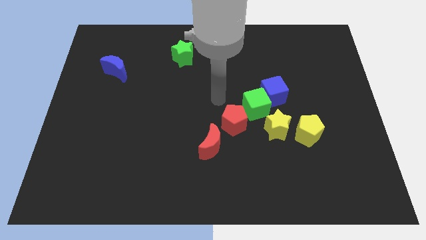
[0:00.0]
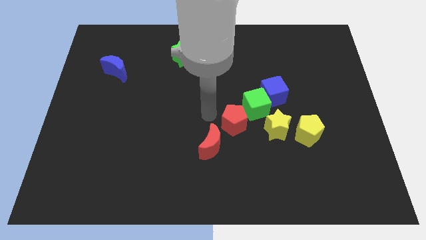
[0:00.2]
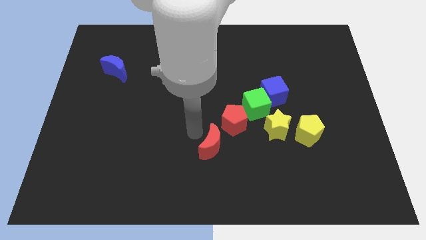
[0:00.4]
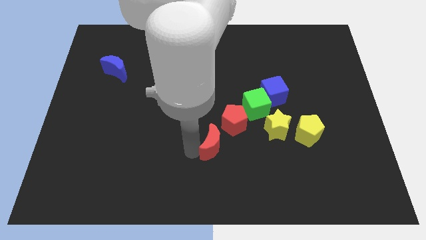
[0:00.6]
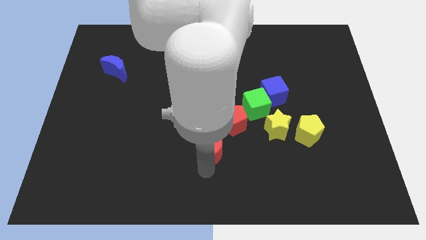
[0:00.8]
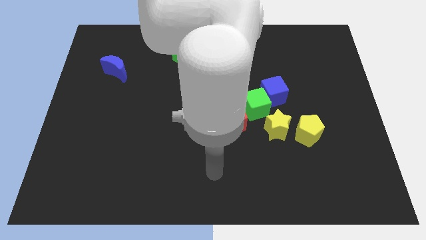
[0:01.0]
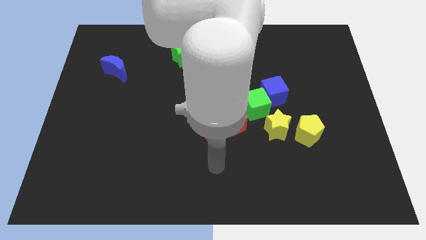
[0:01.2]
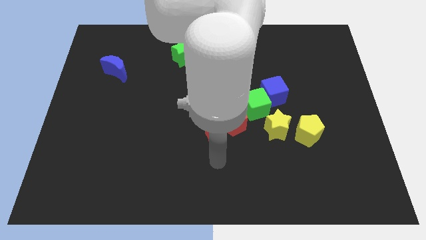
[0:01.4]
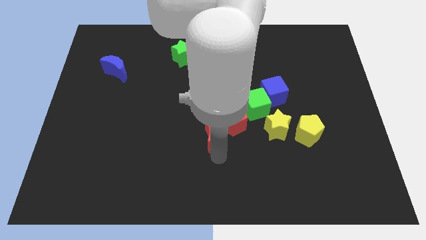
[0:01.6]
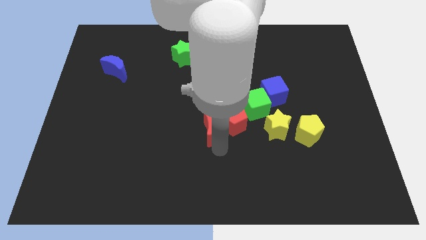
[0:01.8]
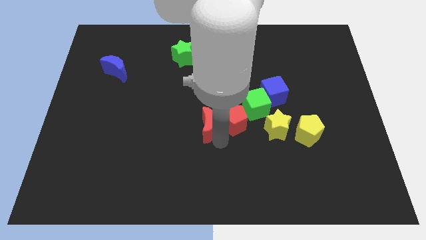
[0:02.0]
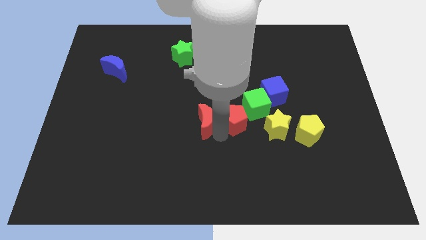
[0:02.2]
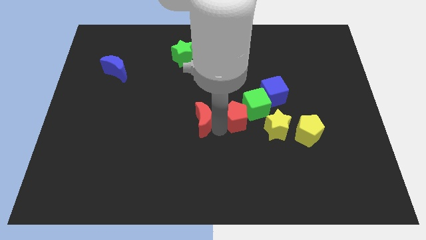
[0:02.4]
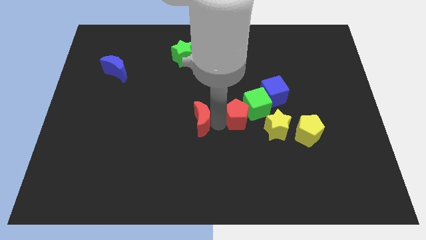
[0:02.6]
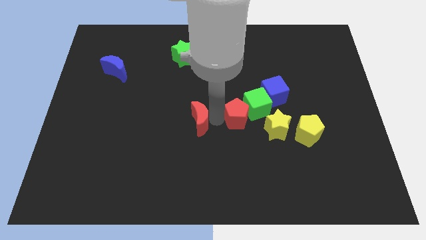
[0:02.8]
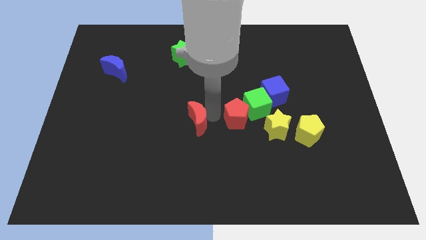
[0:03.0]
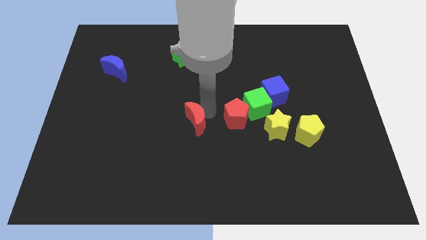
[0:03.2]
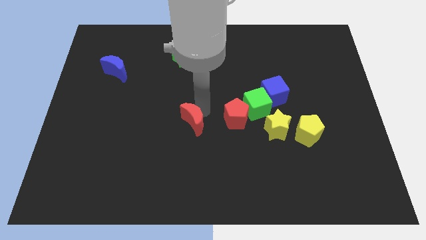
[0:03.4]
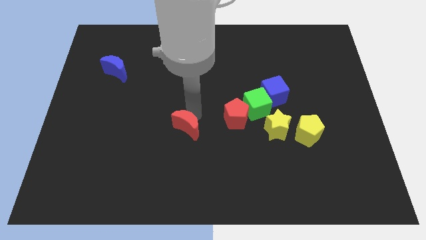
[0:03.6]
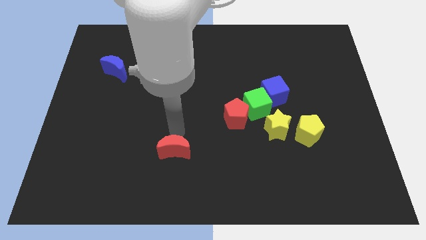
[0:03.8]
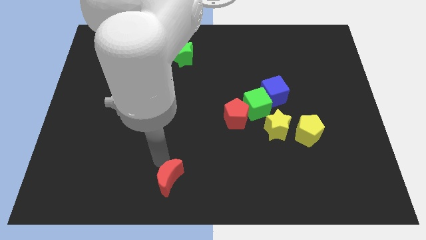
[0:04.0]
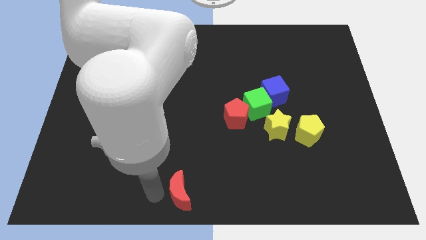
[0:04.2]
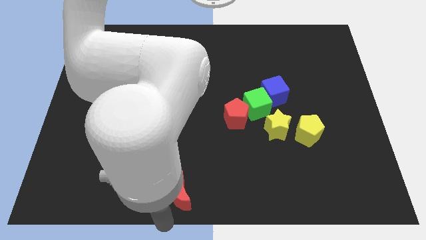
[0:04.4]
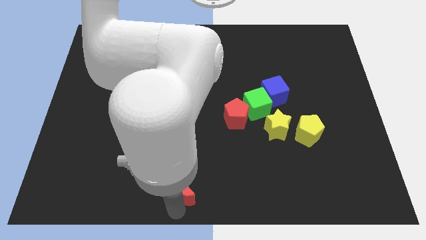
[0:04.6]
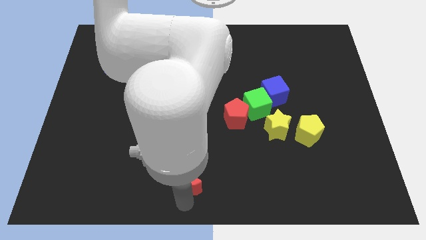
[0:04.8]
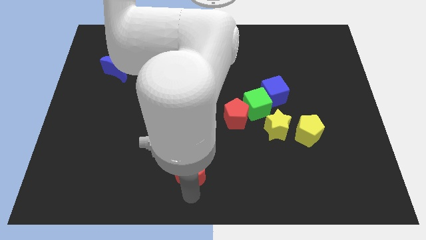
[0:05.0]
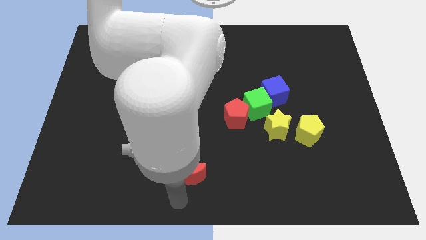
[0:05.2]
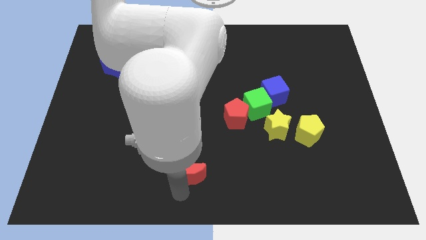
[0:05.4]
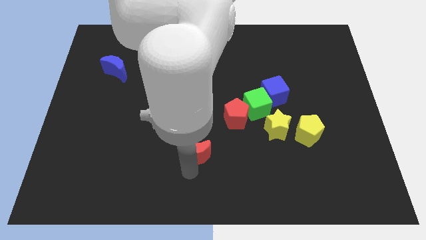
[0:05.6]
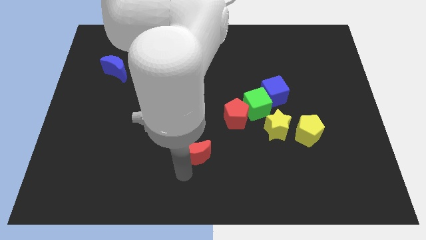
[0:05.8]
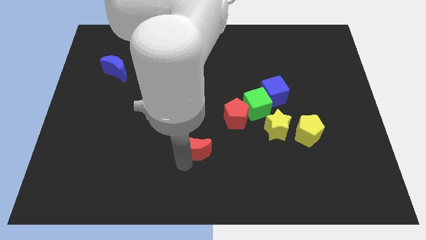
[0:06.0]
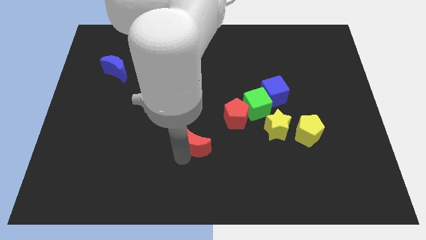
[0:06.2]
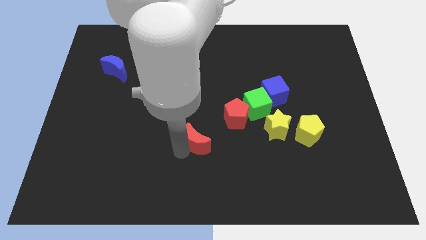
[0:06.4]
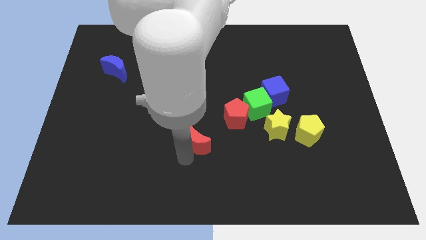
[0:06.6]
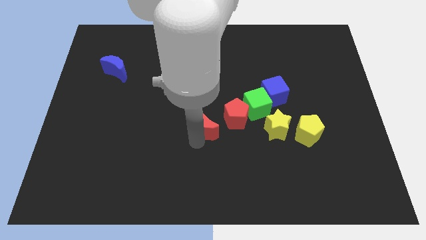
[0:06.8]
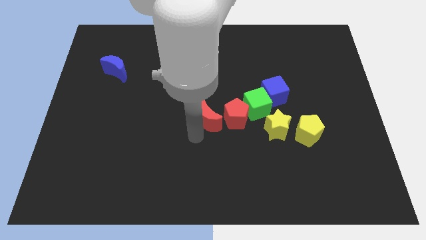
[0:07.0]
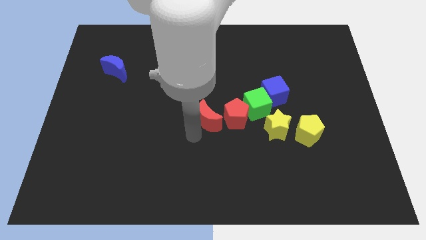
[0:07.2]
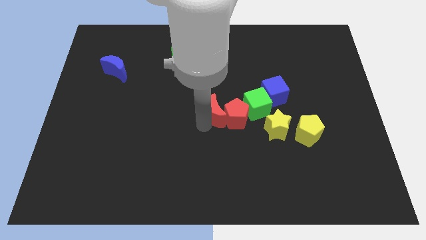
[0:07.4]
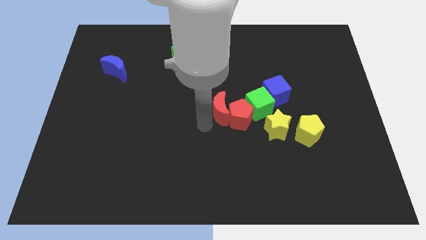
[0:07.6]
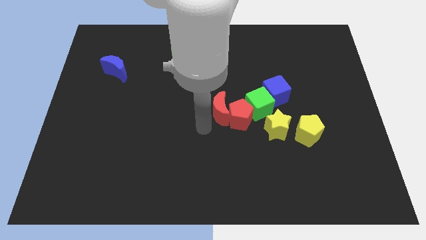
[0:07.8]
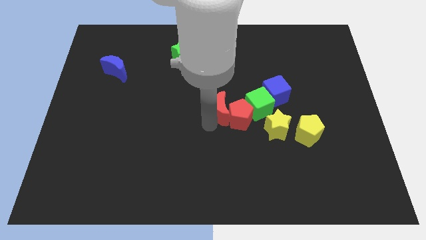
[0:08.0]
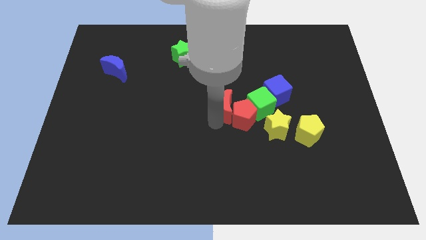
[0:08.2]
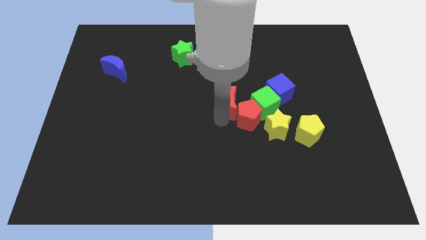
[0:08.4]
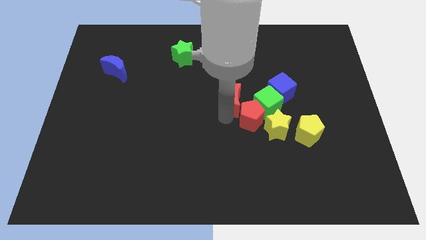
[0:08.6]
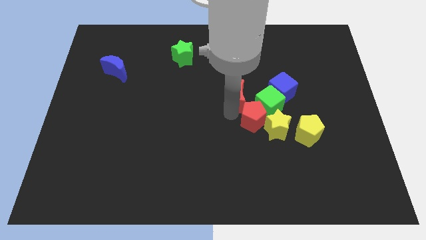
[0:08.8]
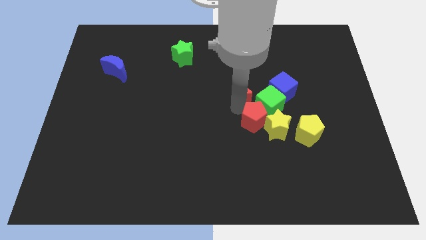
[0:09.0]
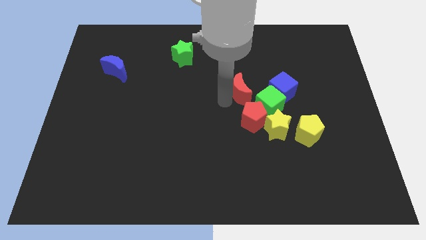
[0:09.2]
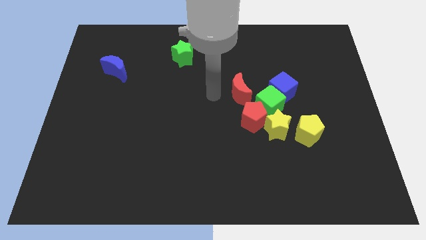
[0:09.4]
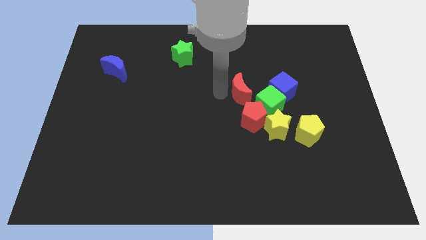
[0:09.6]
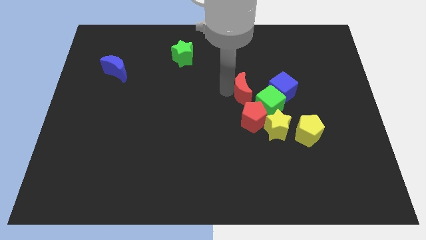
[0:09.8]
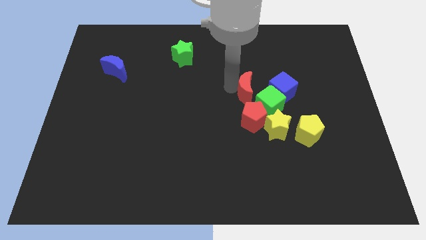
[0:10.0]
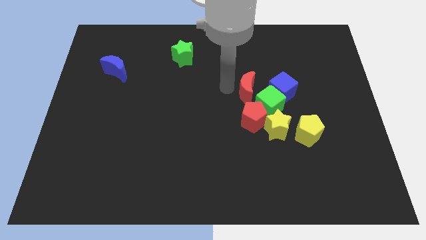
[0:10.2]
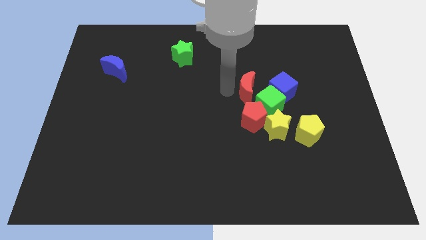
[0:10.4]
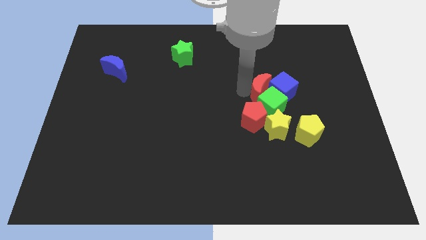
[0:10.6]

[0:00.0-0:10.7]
slide the red moon to the blue cube

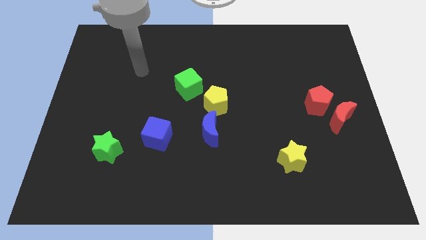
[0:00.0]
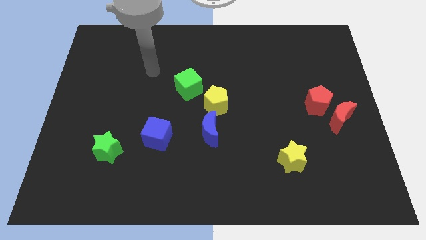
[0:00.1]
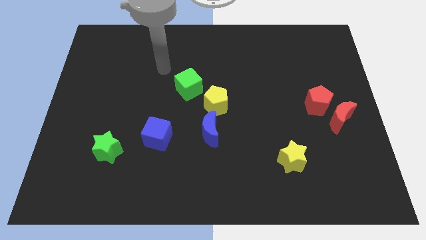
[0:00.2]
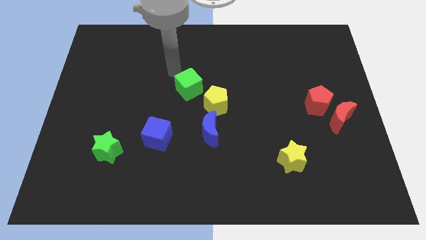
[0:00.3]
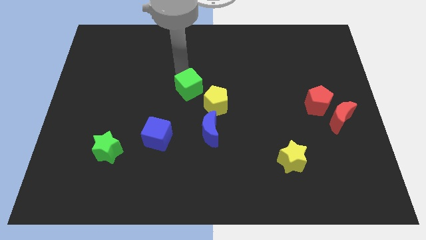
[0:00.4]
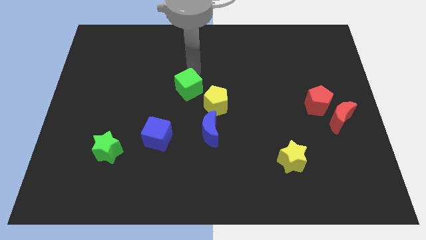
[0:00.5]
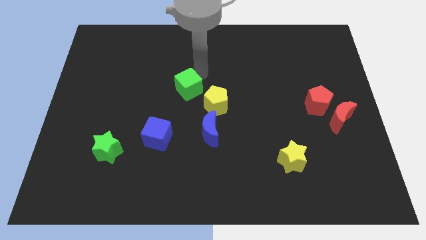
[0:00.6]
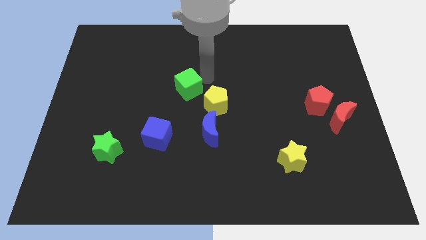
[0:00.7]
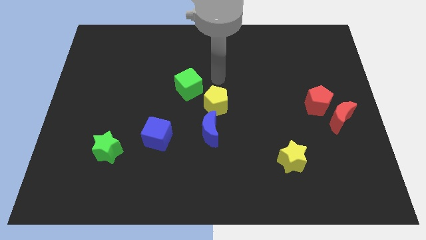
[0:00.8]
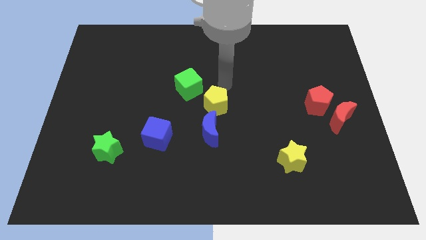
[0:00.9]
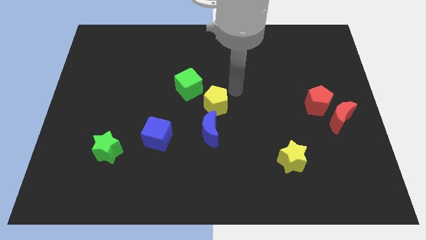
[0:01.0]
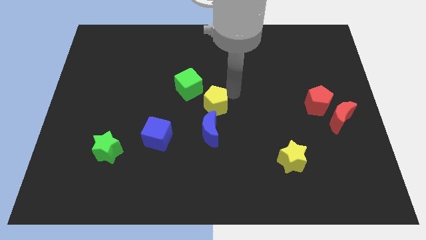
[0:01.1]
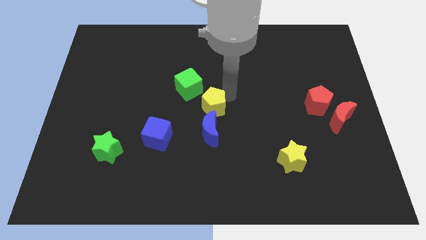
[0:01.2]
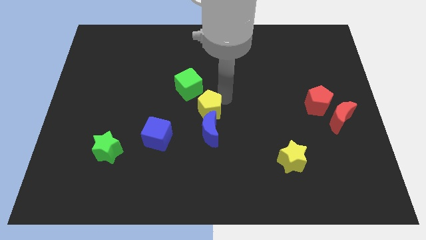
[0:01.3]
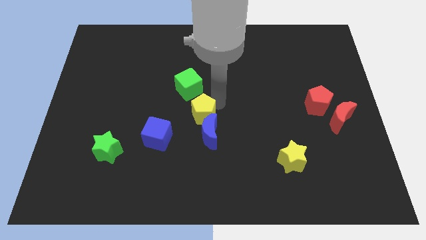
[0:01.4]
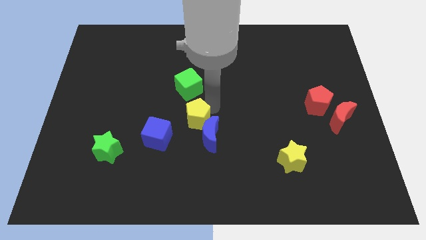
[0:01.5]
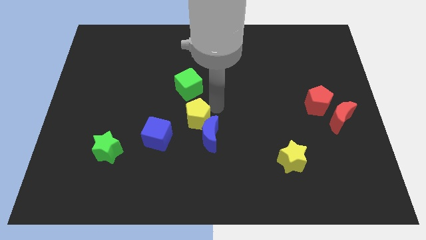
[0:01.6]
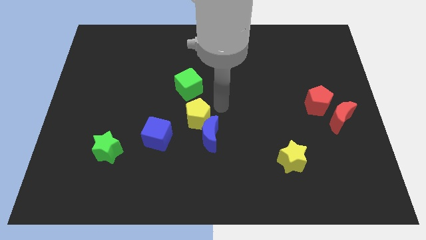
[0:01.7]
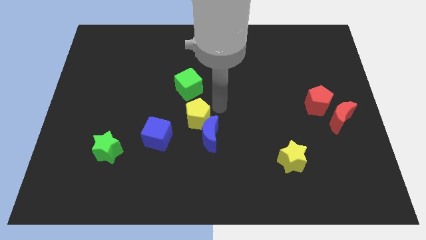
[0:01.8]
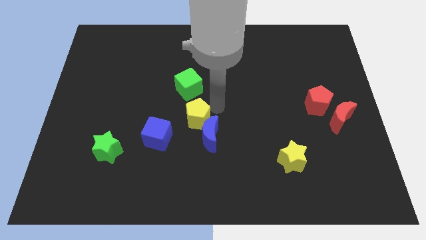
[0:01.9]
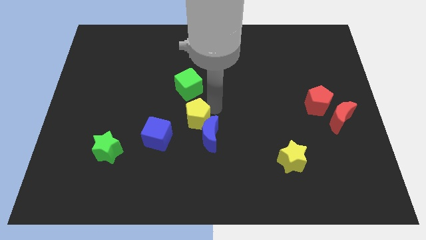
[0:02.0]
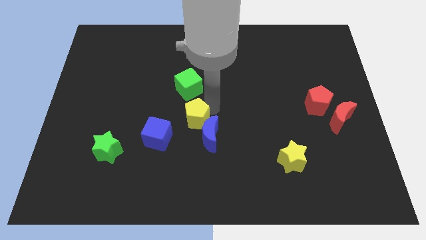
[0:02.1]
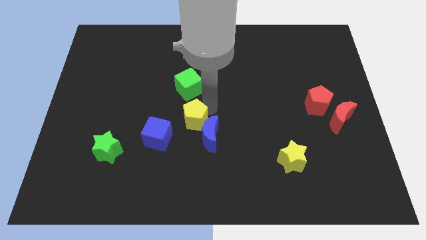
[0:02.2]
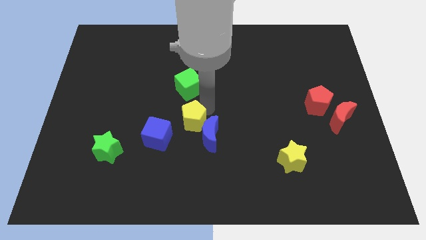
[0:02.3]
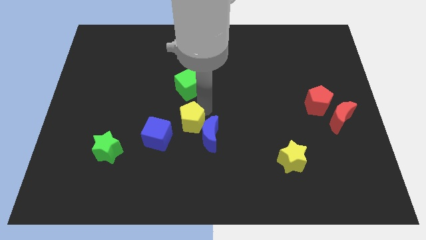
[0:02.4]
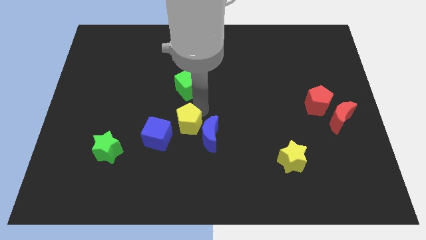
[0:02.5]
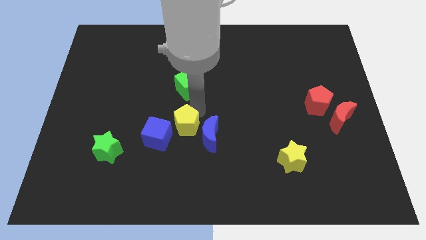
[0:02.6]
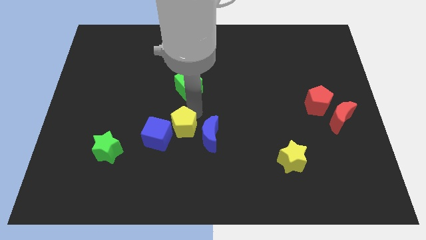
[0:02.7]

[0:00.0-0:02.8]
push the yellow pentagon to the blue cube
